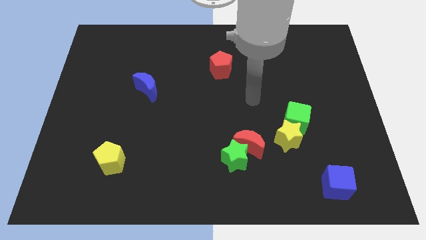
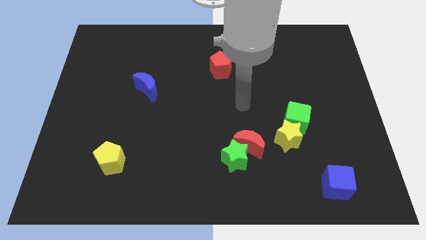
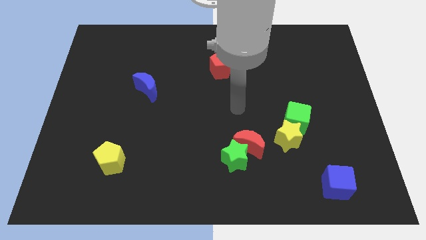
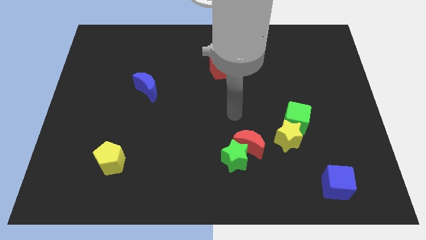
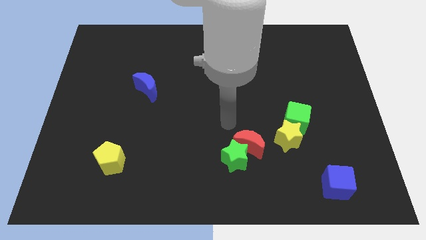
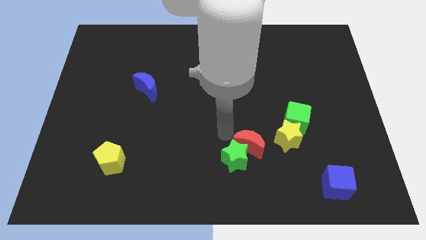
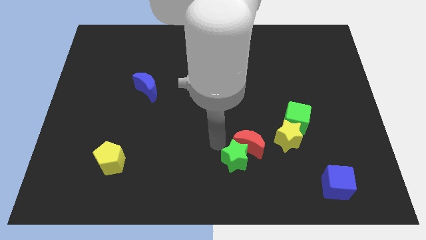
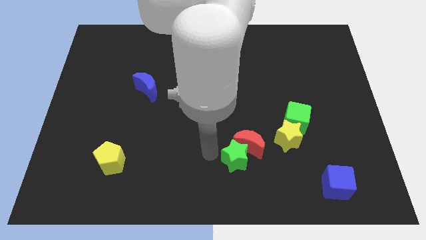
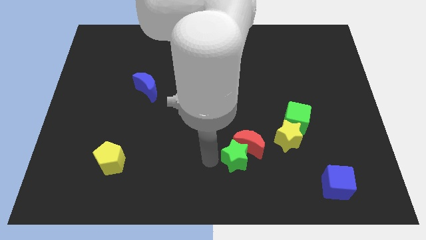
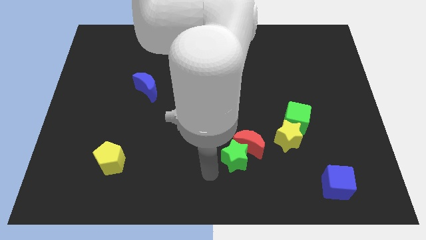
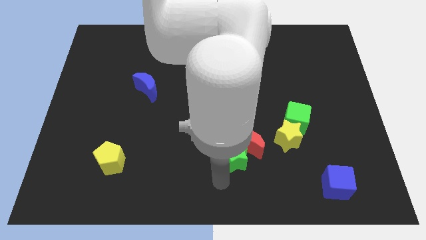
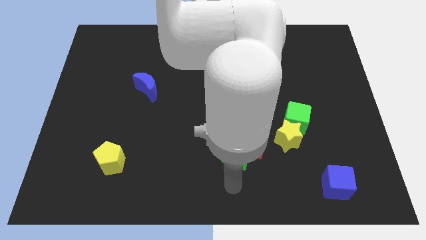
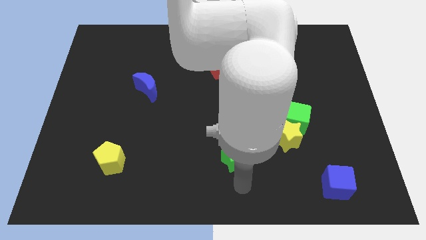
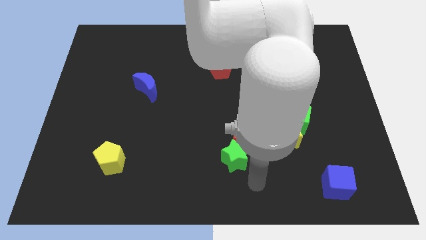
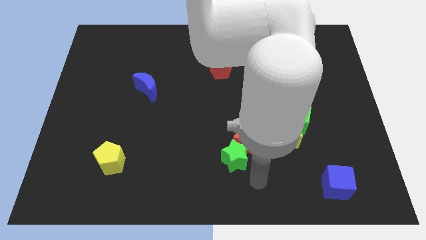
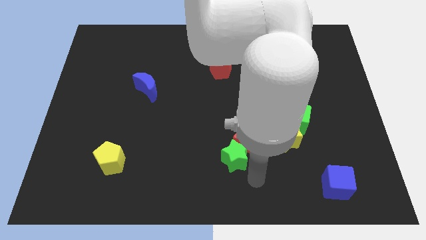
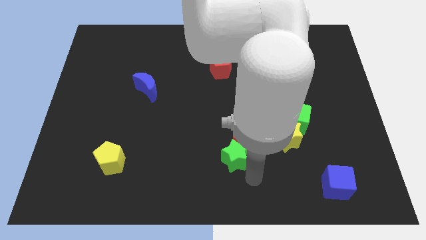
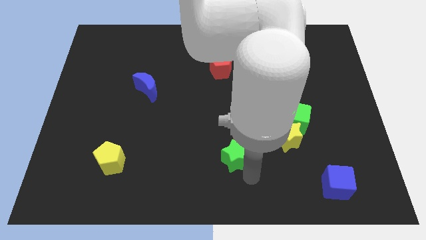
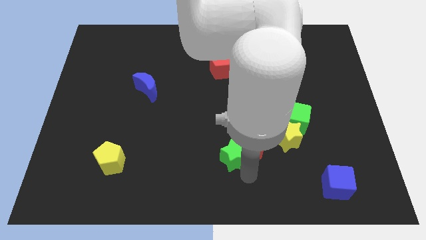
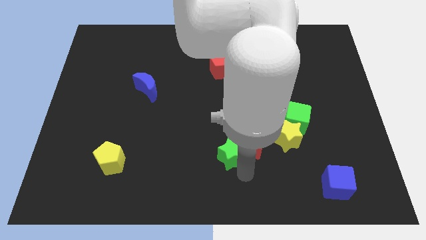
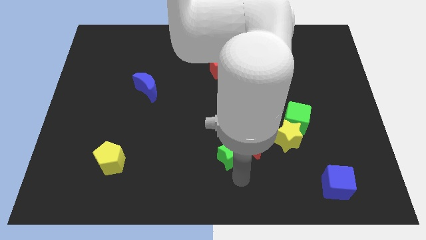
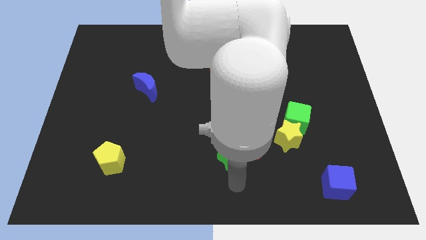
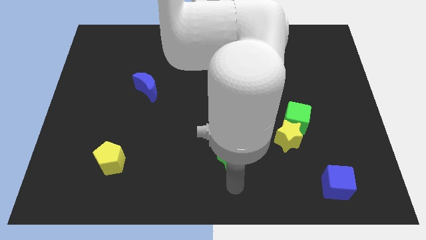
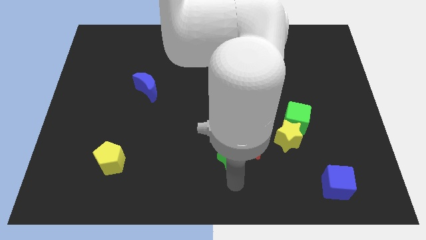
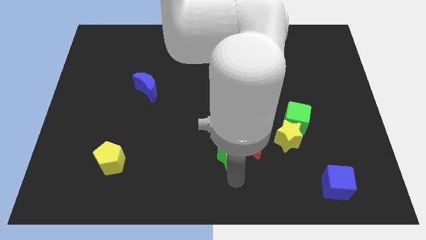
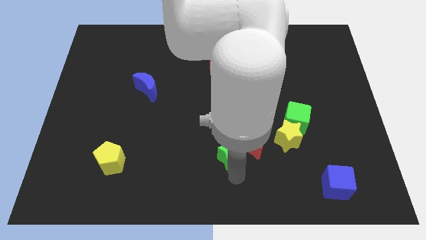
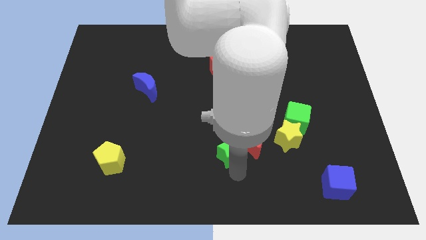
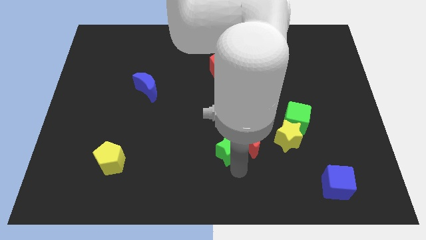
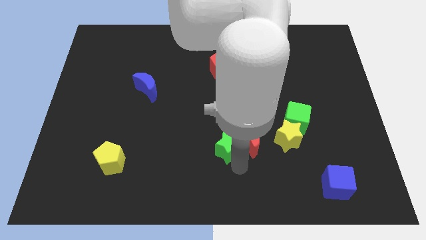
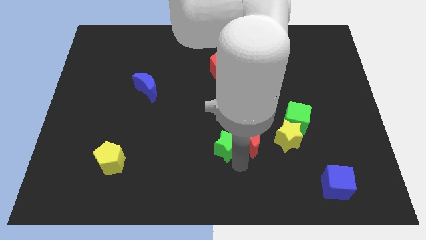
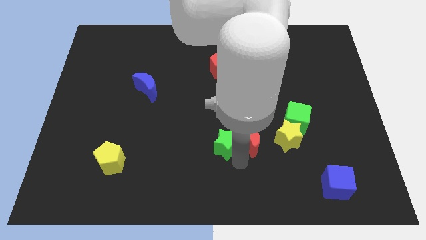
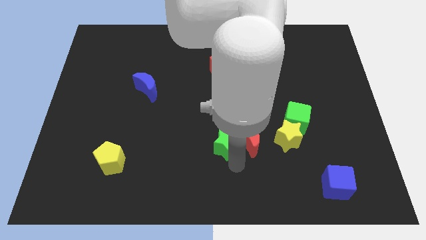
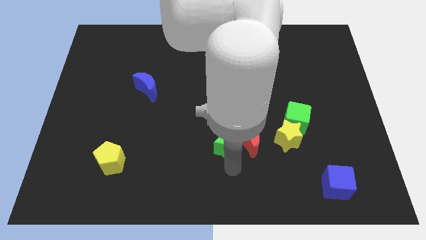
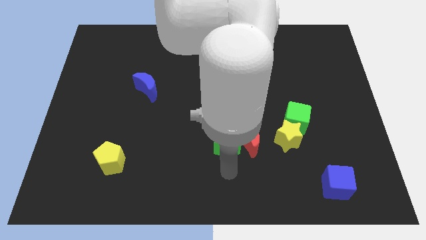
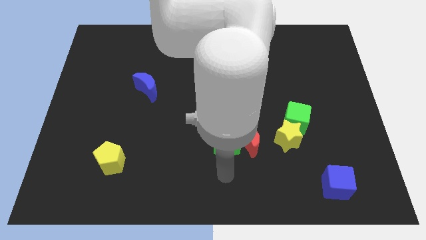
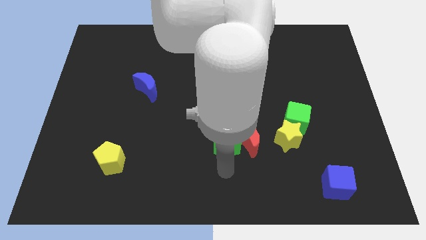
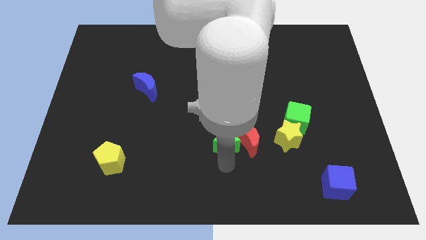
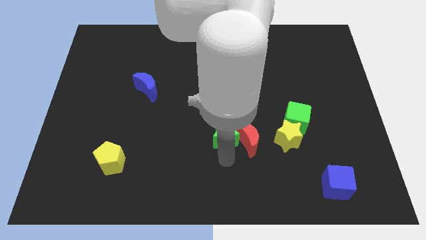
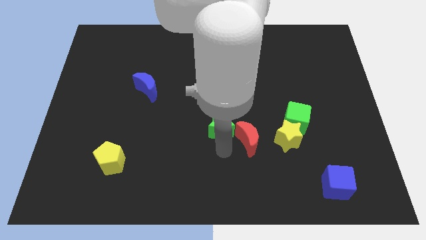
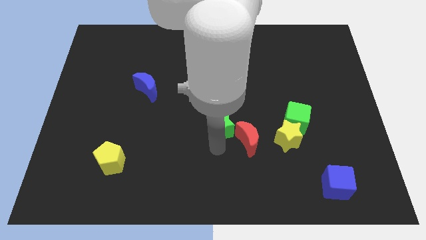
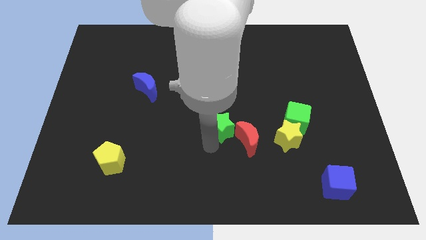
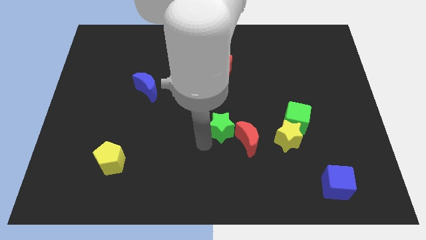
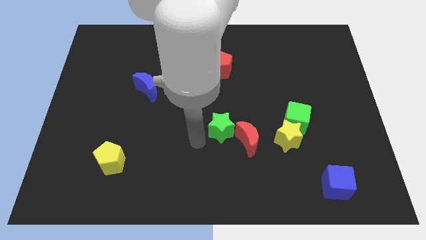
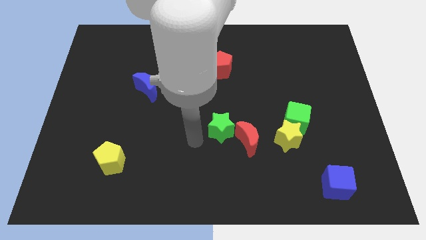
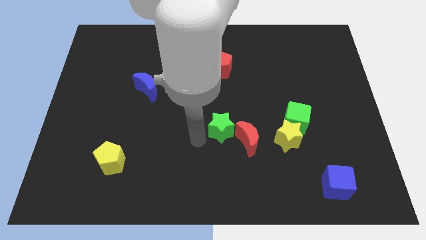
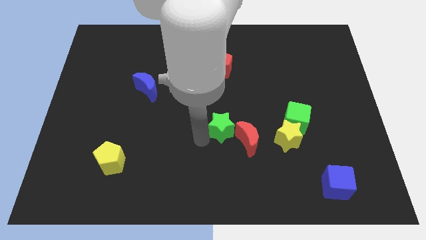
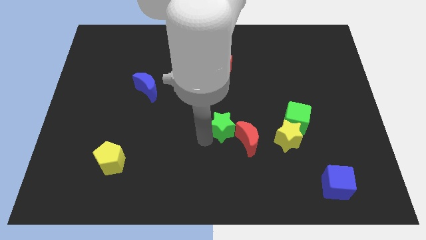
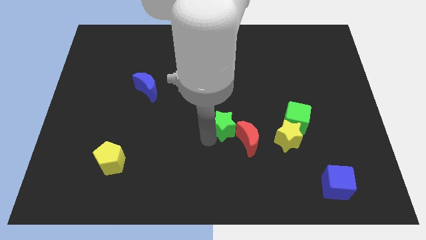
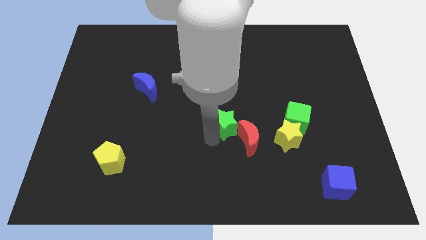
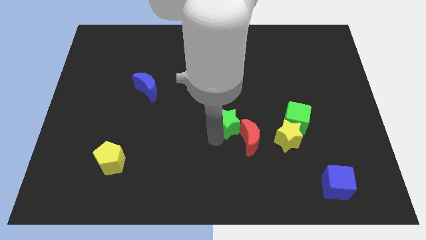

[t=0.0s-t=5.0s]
slide the green star left of the green cube

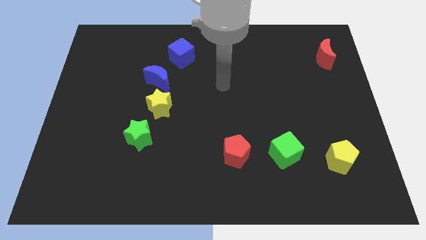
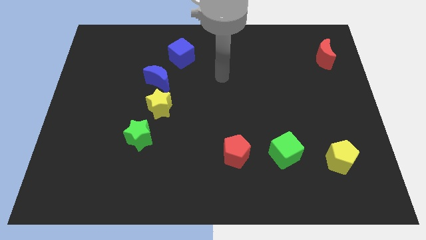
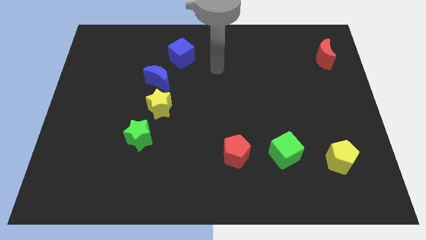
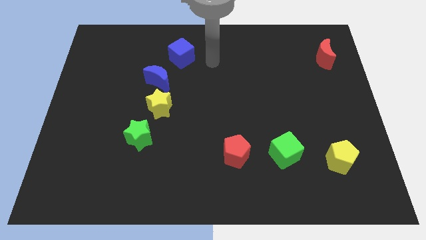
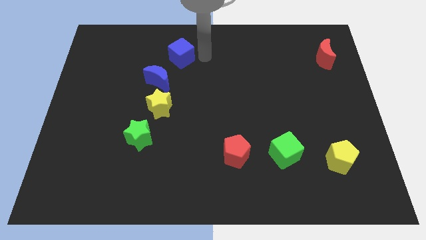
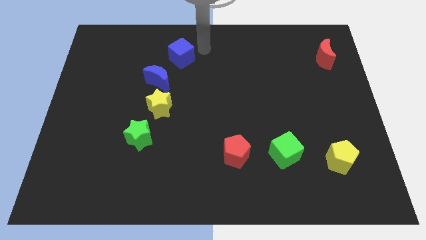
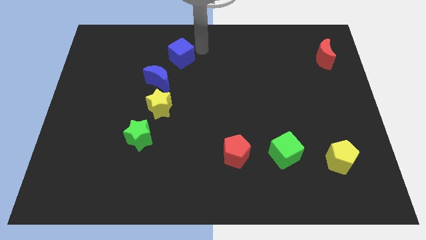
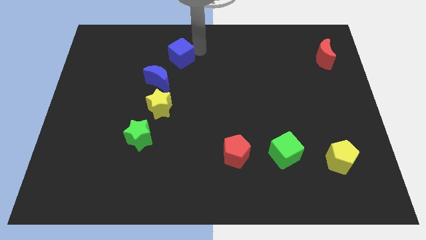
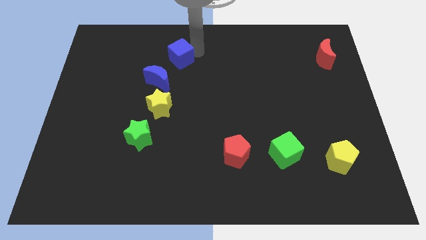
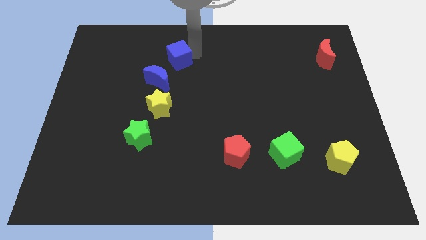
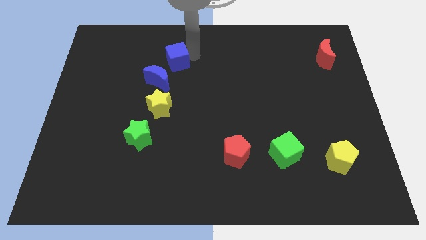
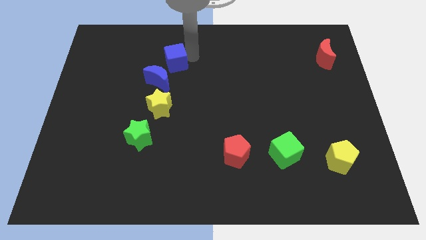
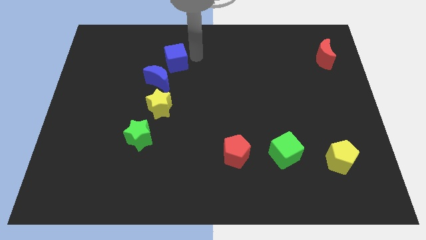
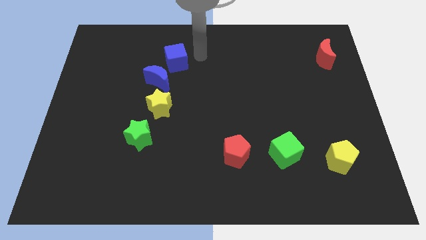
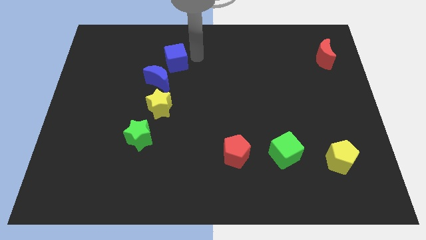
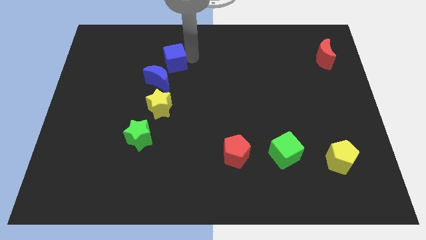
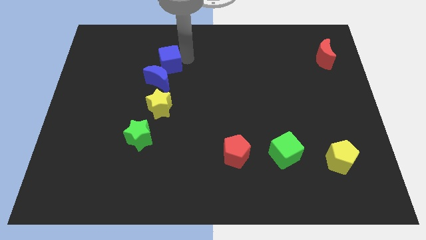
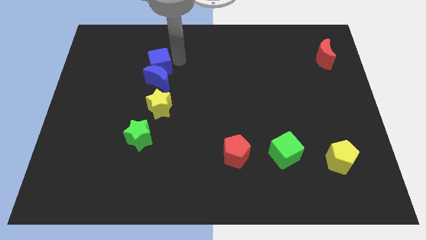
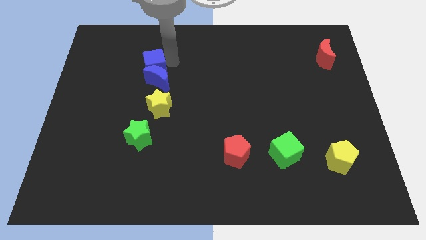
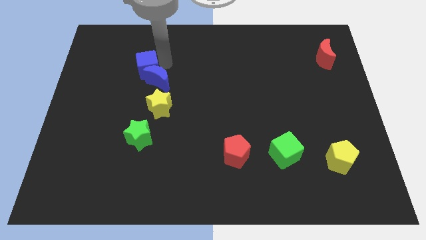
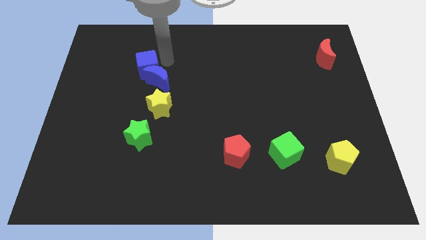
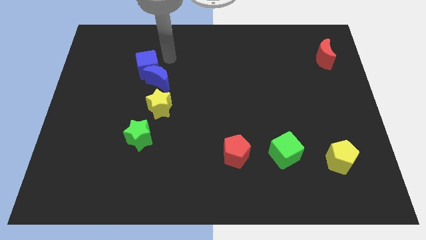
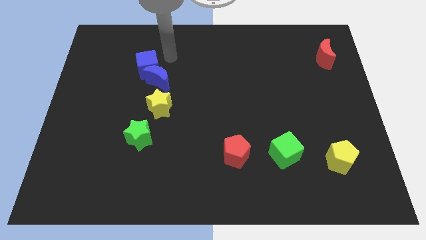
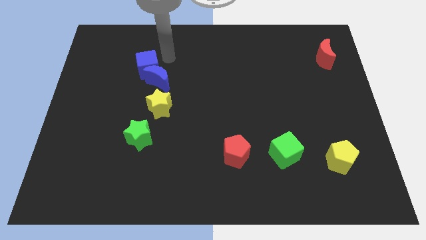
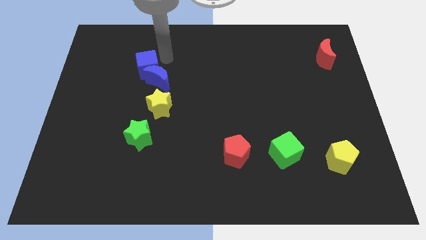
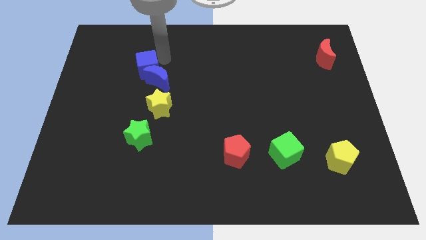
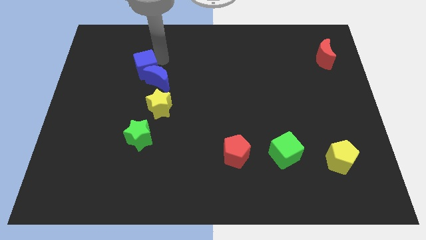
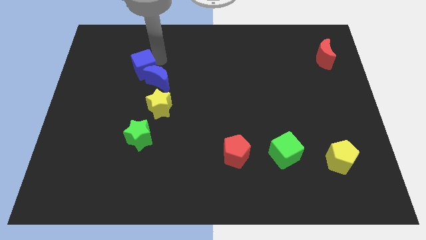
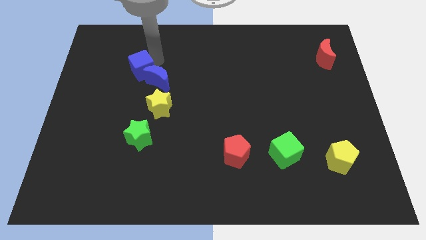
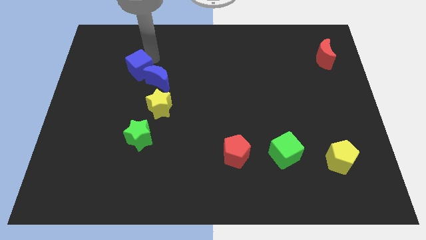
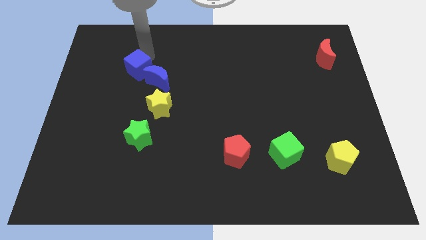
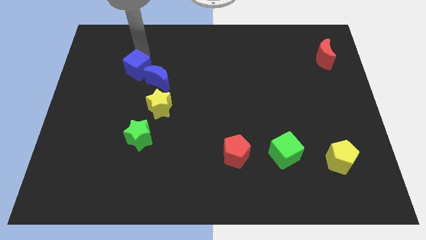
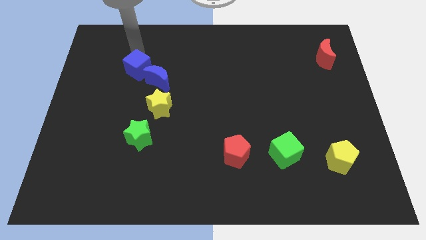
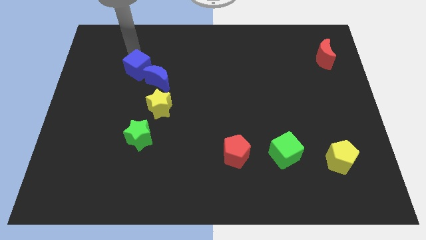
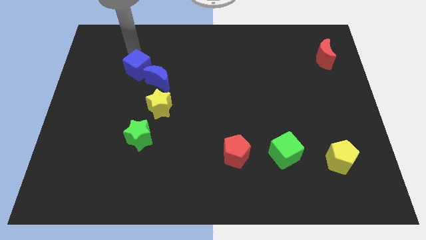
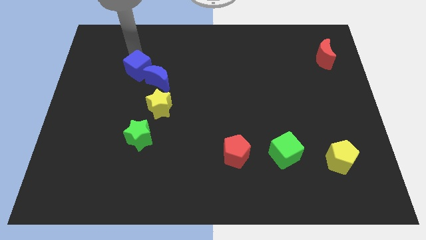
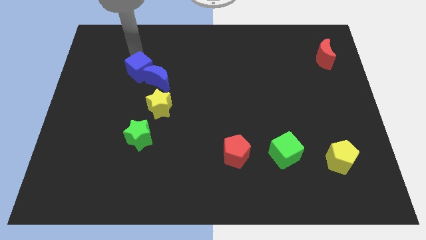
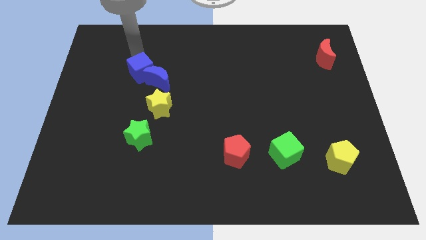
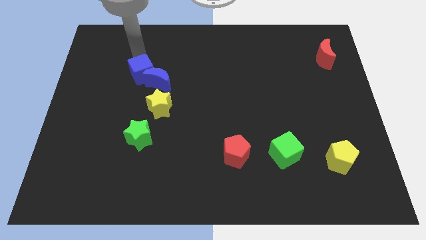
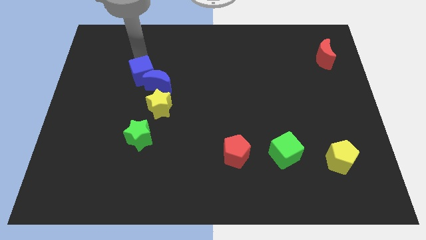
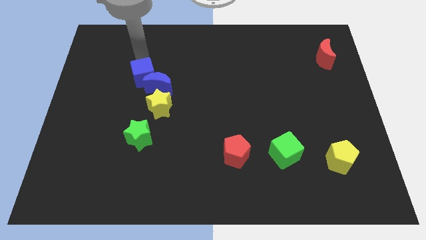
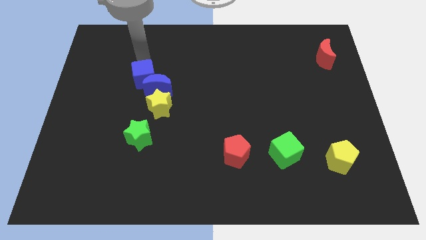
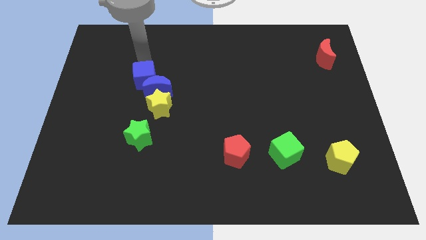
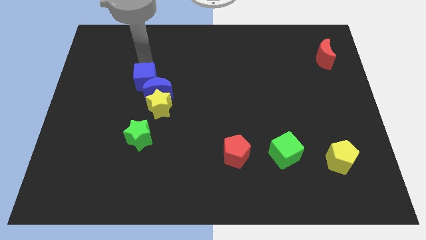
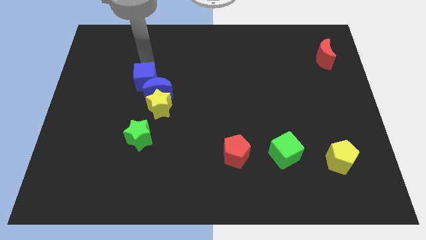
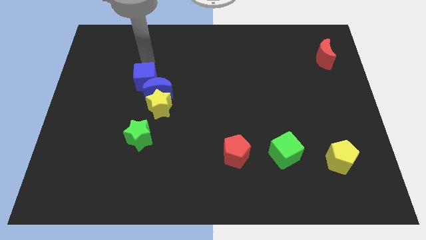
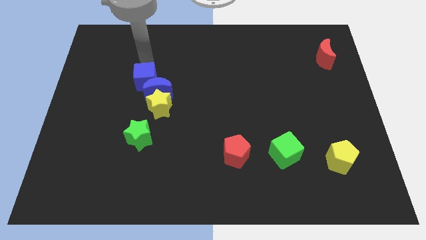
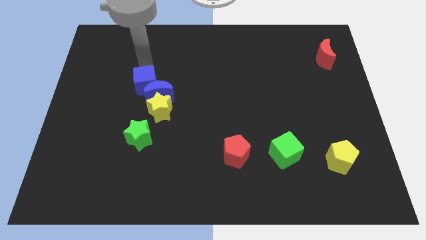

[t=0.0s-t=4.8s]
move the blue cube above the green star
